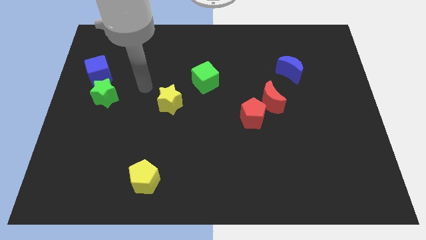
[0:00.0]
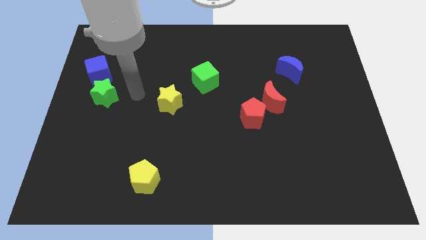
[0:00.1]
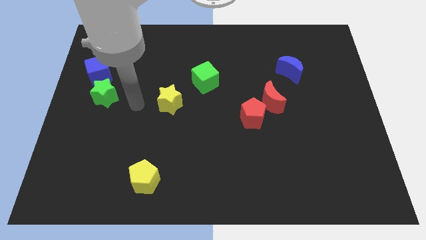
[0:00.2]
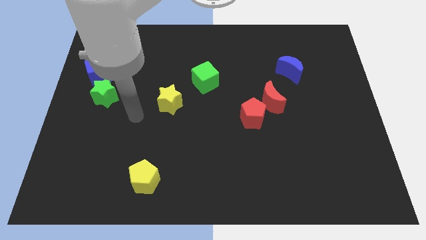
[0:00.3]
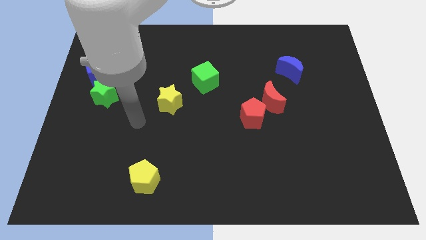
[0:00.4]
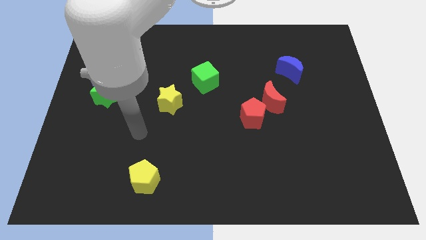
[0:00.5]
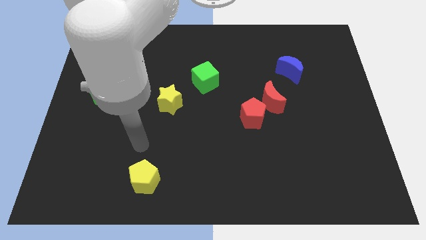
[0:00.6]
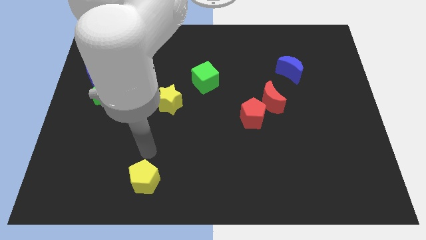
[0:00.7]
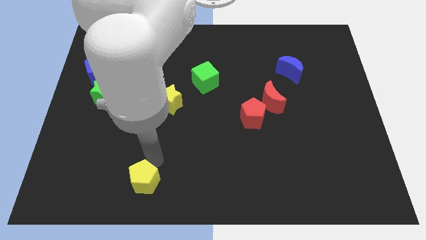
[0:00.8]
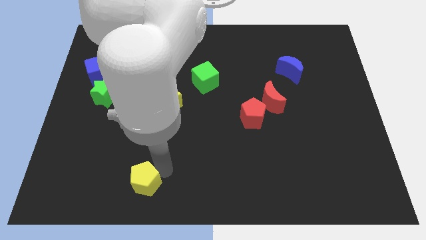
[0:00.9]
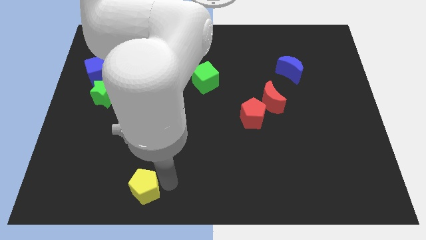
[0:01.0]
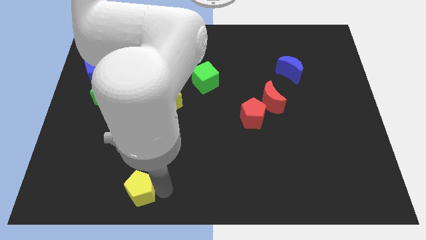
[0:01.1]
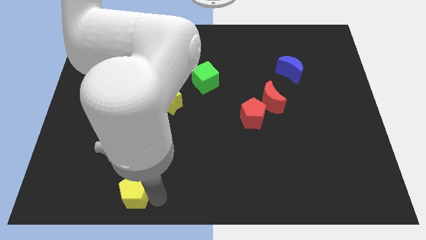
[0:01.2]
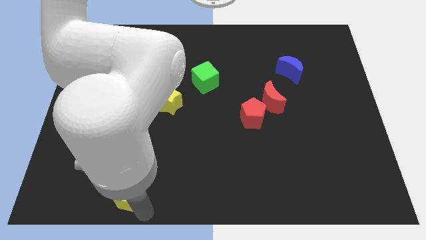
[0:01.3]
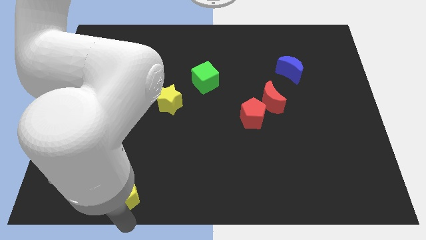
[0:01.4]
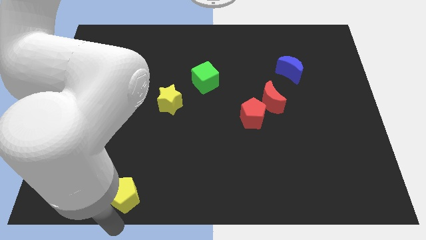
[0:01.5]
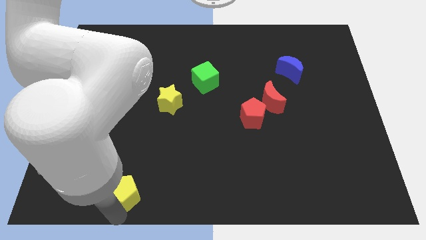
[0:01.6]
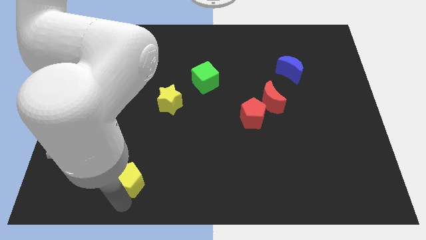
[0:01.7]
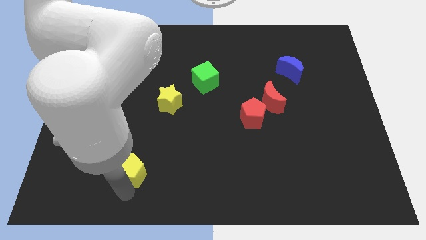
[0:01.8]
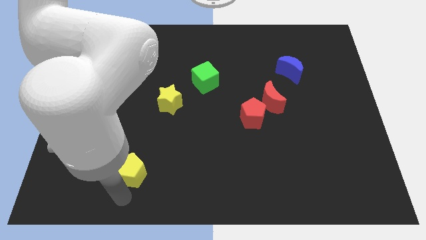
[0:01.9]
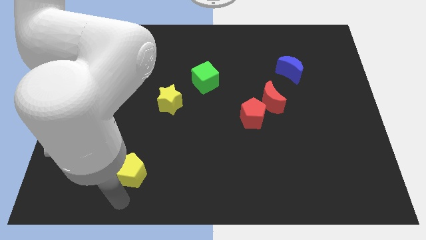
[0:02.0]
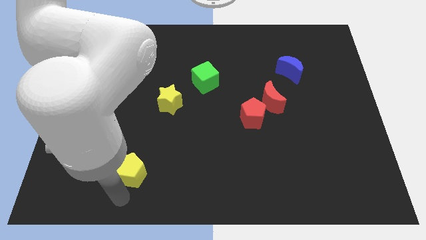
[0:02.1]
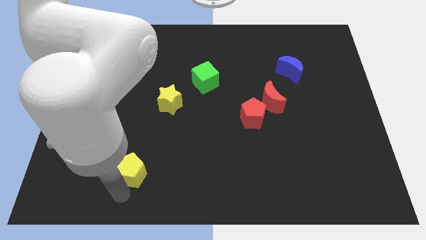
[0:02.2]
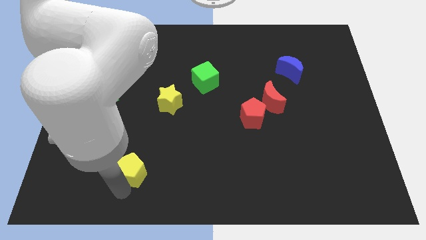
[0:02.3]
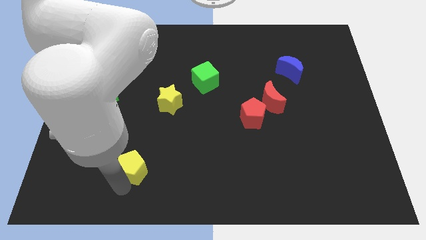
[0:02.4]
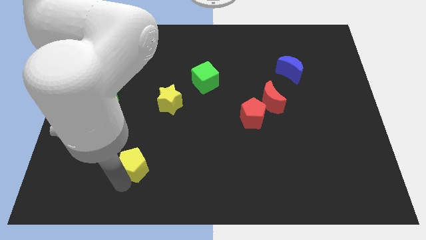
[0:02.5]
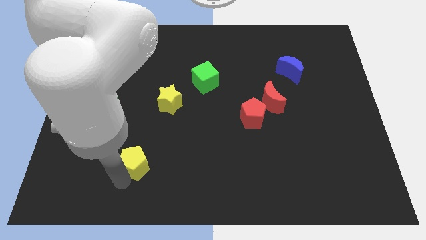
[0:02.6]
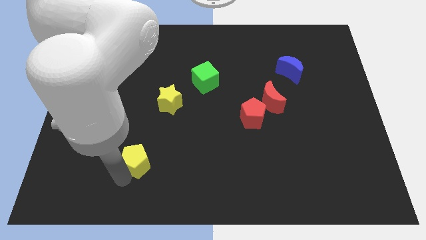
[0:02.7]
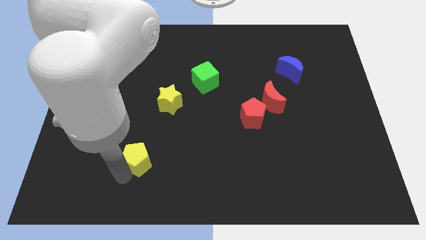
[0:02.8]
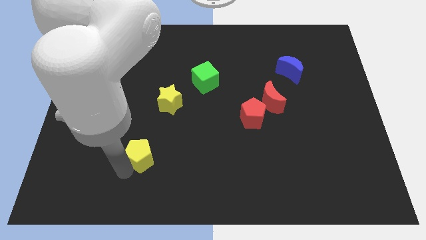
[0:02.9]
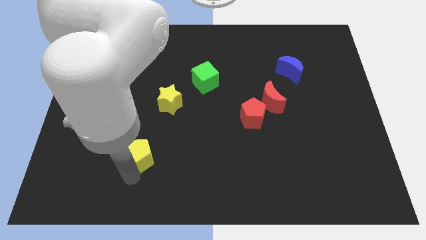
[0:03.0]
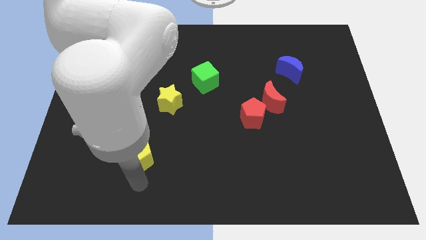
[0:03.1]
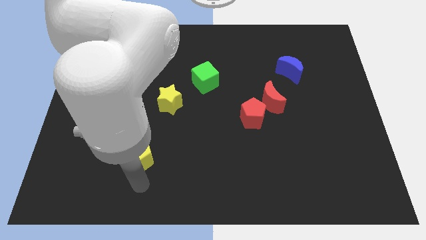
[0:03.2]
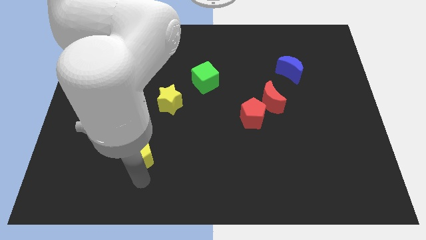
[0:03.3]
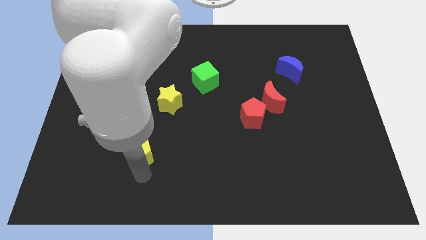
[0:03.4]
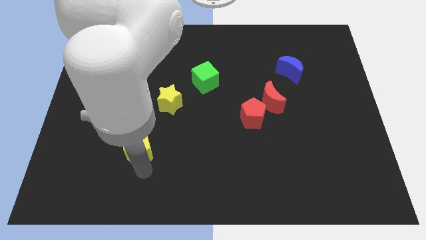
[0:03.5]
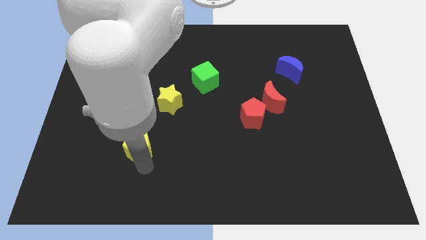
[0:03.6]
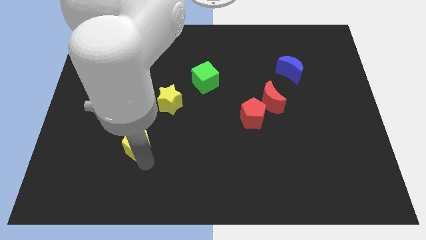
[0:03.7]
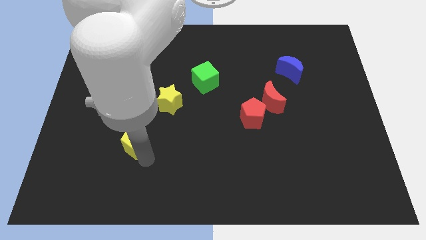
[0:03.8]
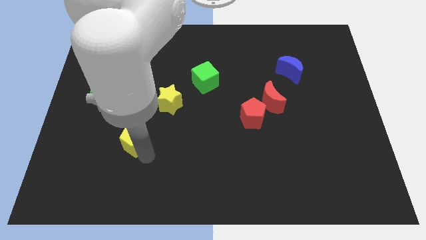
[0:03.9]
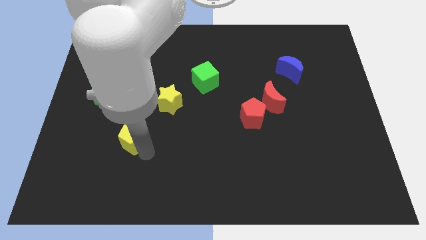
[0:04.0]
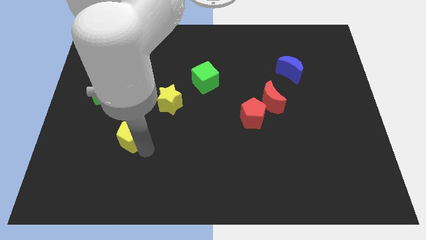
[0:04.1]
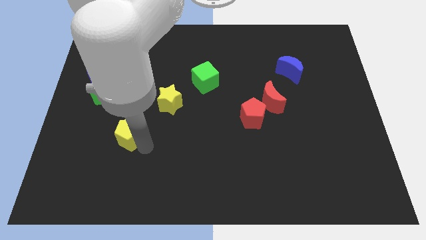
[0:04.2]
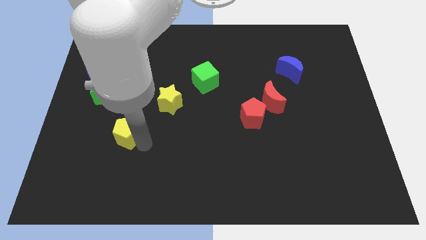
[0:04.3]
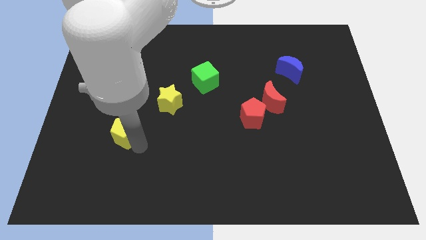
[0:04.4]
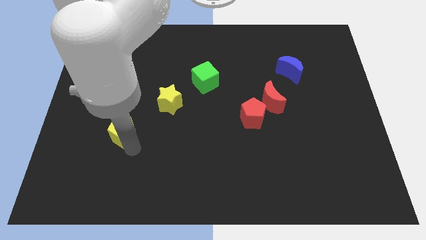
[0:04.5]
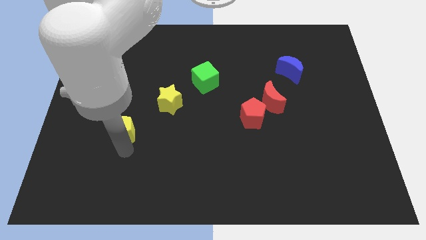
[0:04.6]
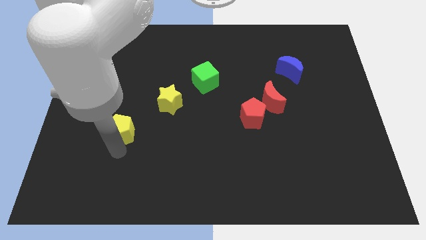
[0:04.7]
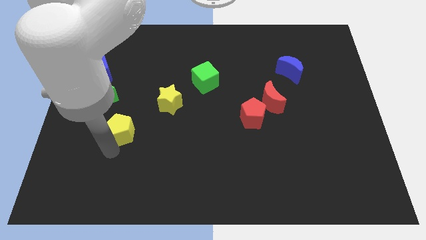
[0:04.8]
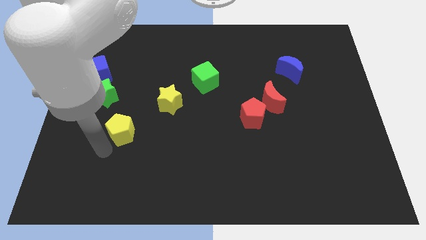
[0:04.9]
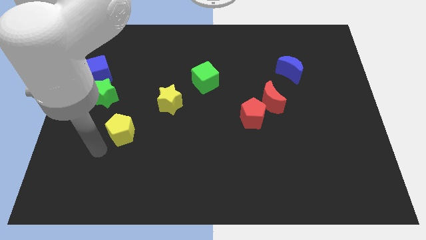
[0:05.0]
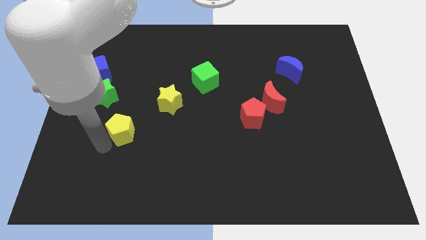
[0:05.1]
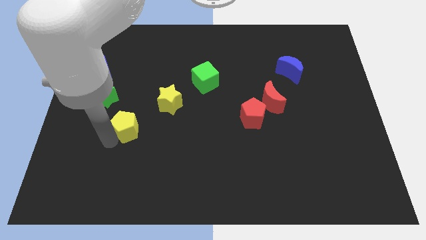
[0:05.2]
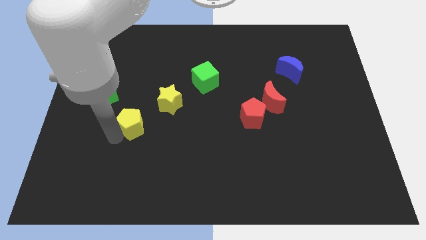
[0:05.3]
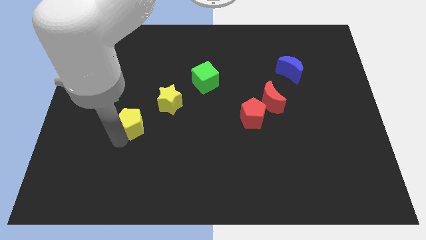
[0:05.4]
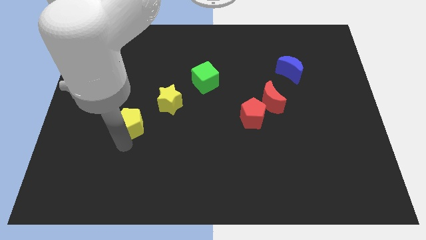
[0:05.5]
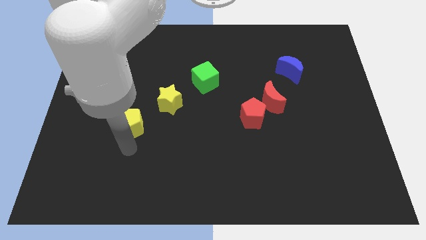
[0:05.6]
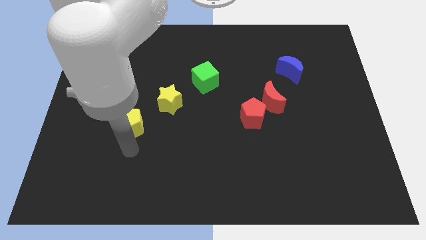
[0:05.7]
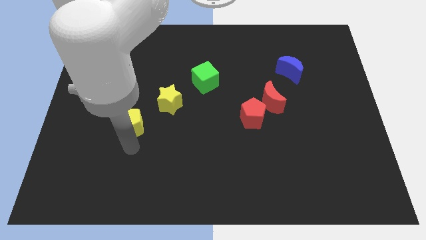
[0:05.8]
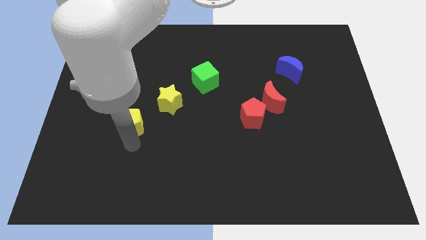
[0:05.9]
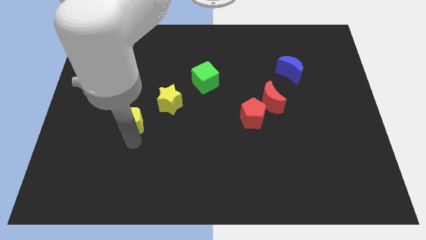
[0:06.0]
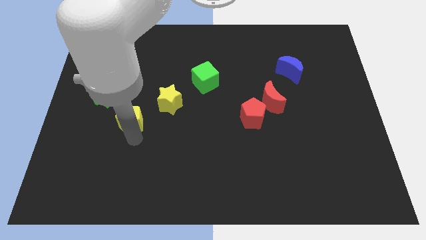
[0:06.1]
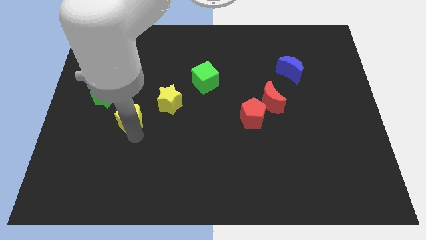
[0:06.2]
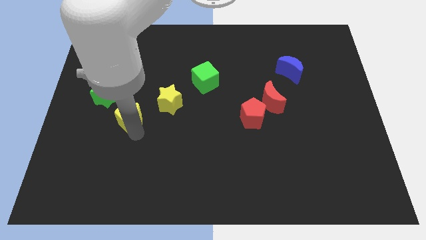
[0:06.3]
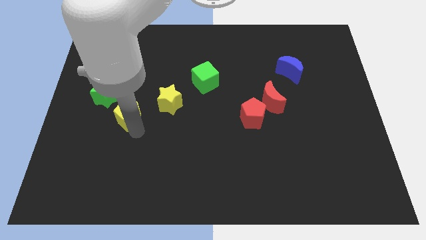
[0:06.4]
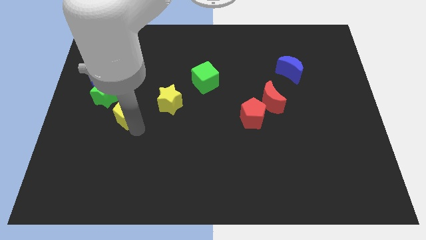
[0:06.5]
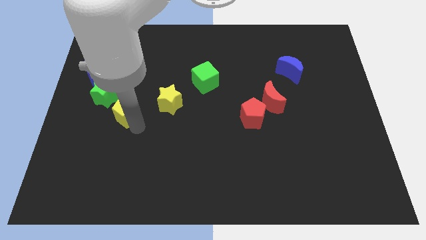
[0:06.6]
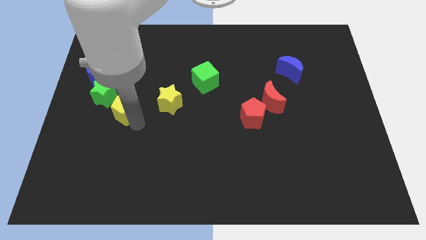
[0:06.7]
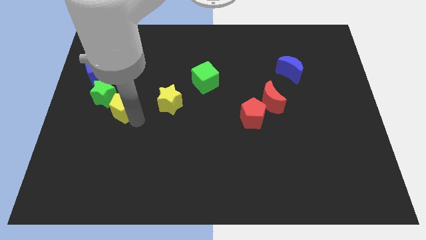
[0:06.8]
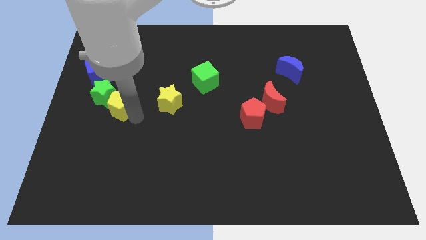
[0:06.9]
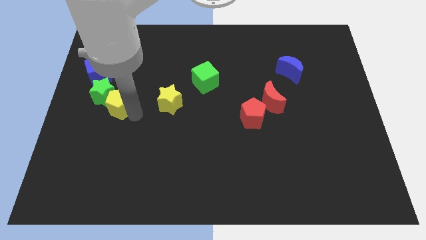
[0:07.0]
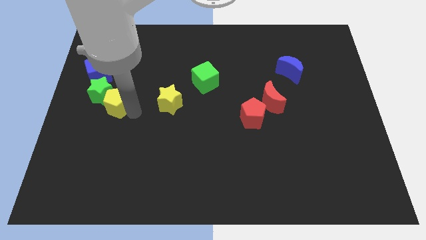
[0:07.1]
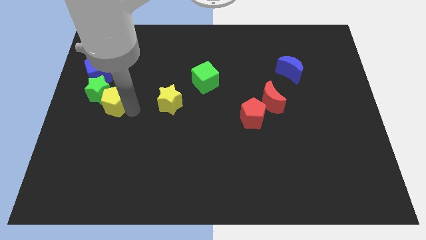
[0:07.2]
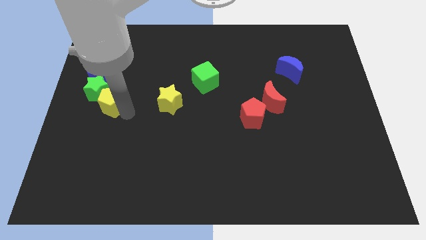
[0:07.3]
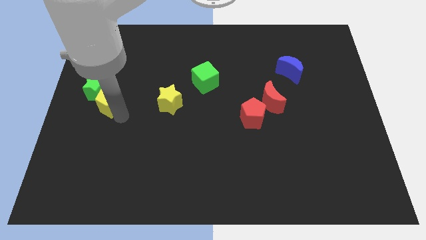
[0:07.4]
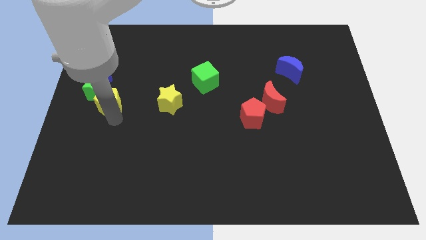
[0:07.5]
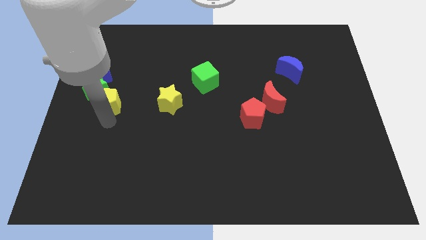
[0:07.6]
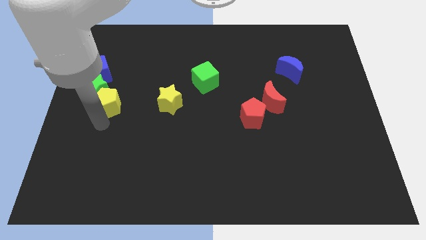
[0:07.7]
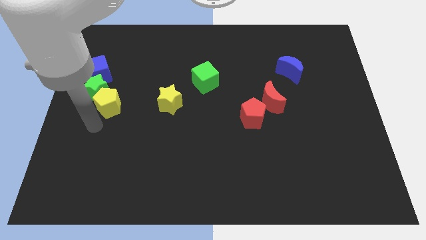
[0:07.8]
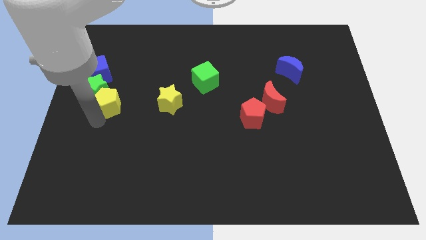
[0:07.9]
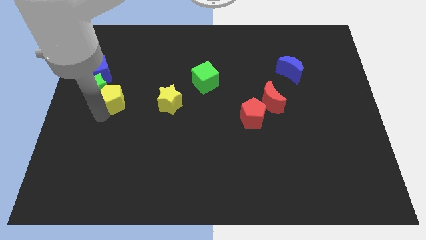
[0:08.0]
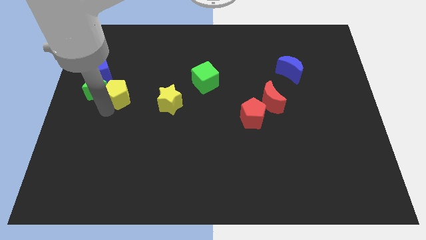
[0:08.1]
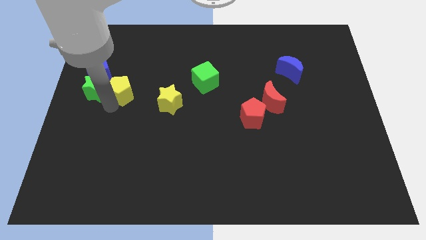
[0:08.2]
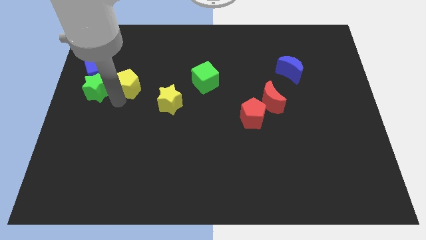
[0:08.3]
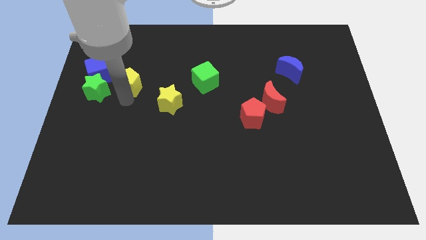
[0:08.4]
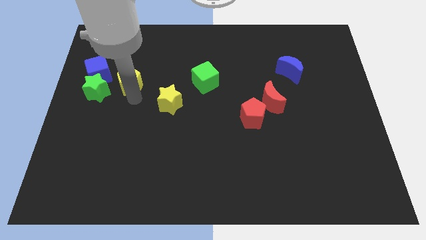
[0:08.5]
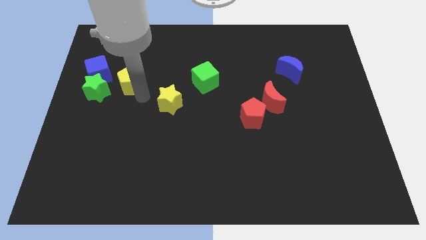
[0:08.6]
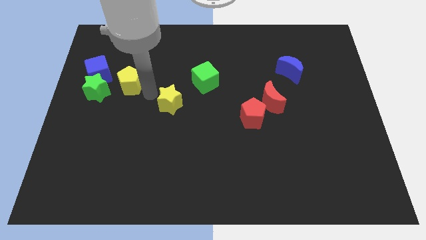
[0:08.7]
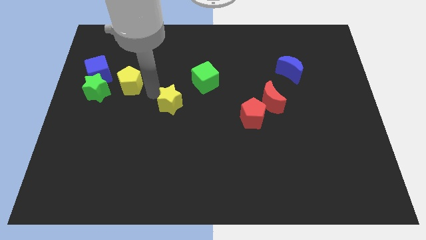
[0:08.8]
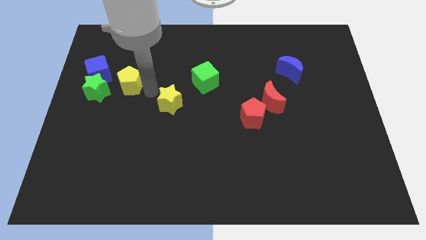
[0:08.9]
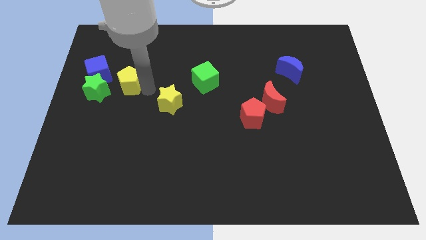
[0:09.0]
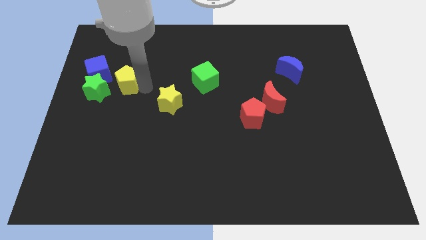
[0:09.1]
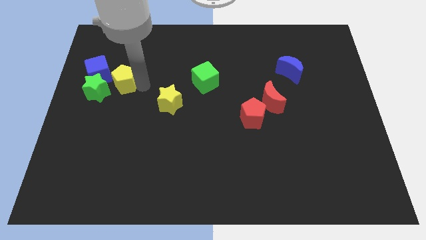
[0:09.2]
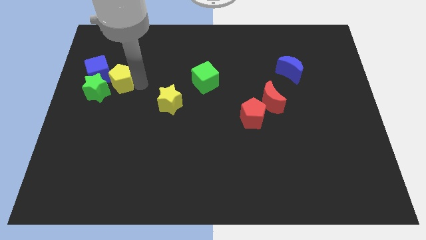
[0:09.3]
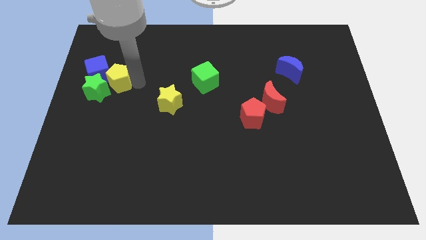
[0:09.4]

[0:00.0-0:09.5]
push the yellow pentagon close to the blue cube
